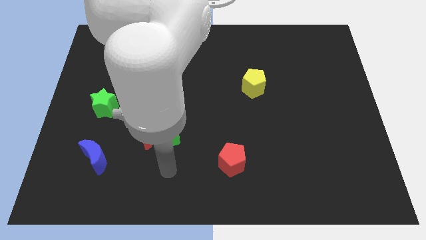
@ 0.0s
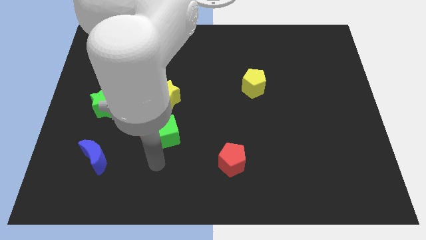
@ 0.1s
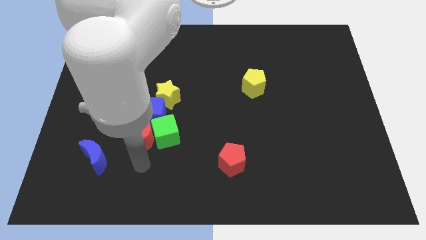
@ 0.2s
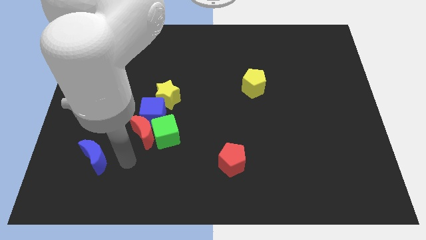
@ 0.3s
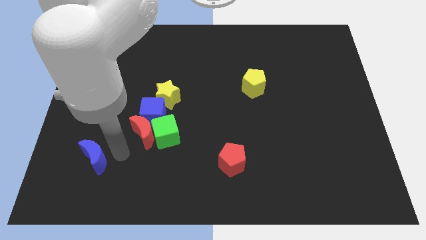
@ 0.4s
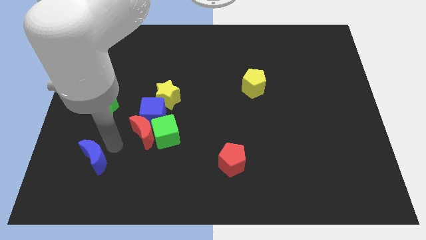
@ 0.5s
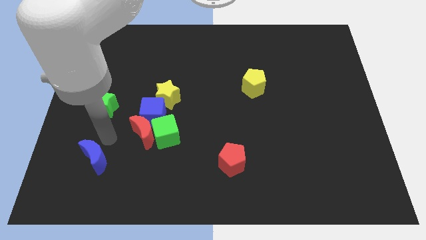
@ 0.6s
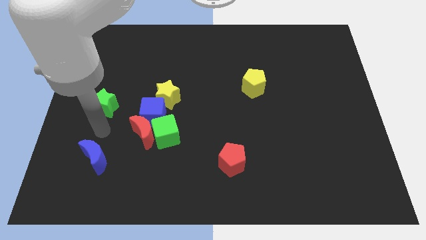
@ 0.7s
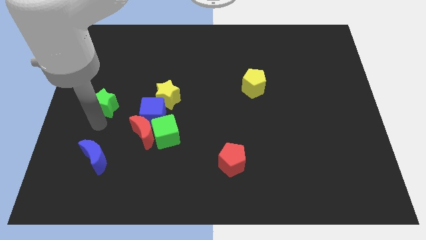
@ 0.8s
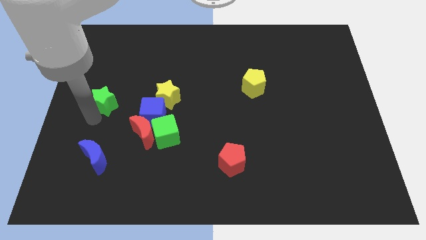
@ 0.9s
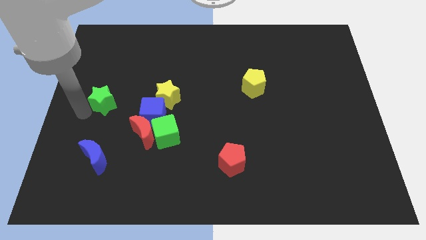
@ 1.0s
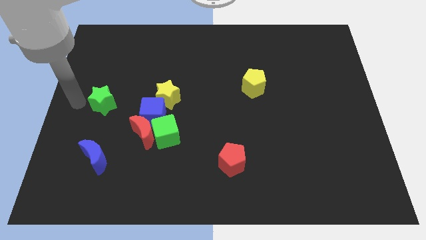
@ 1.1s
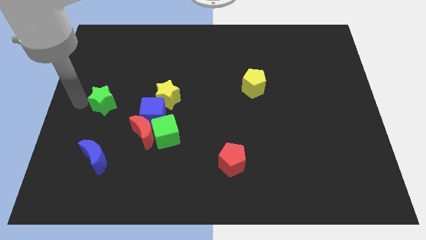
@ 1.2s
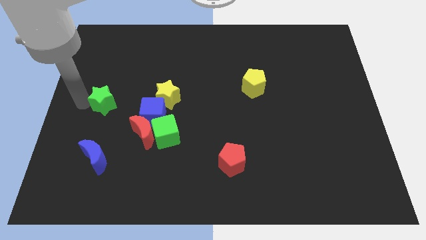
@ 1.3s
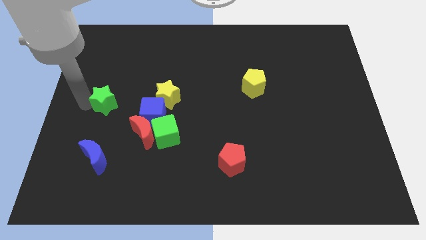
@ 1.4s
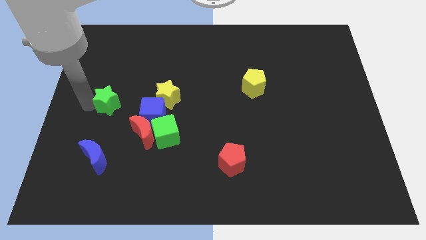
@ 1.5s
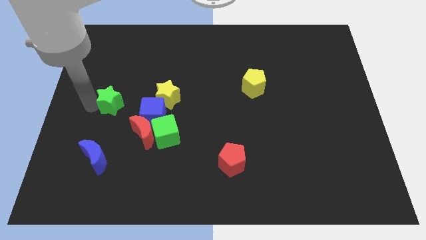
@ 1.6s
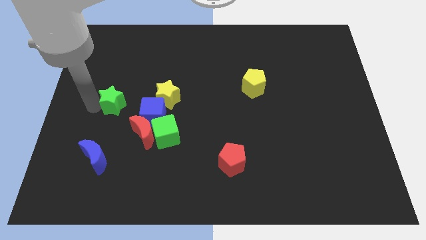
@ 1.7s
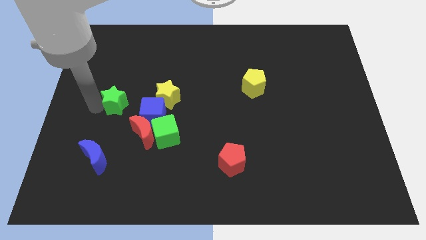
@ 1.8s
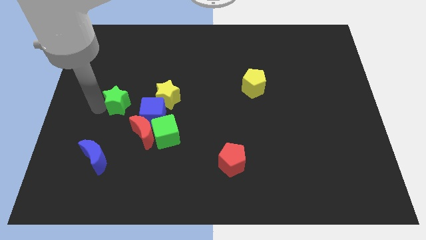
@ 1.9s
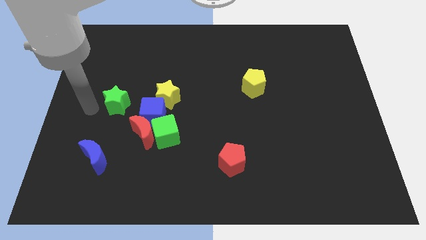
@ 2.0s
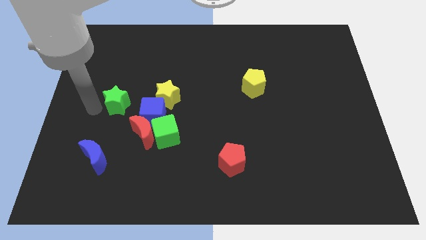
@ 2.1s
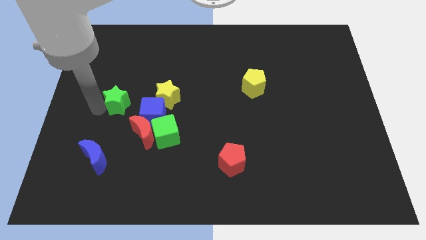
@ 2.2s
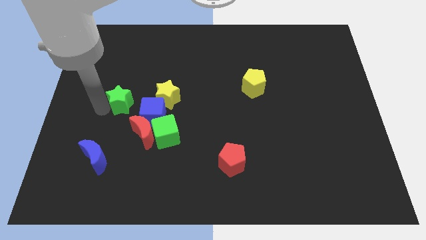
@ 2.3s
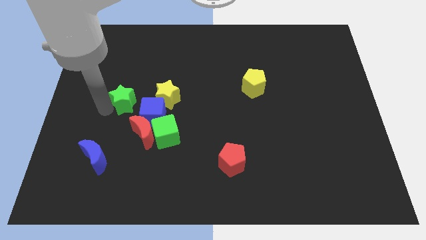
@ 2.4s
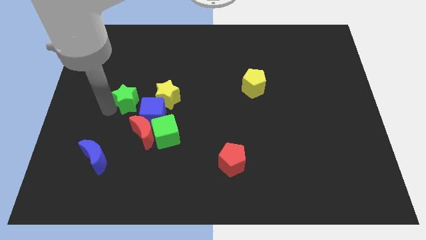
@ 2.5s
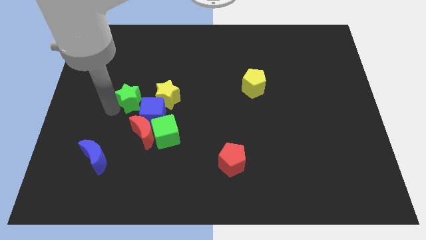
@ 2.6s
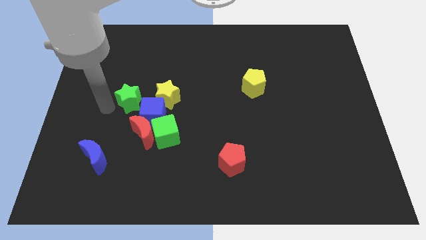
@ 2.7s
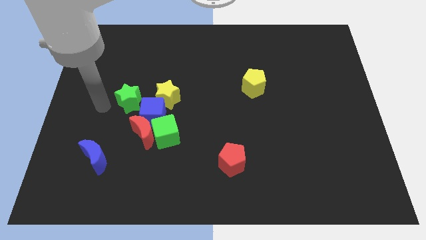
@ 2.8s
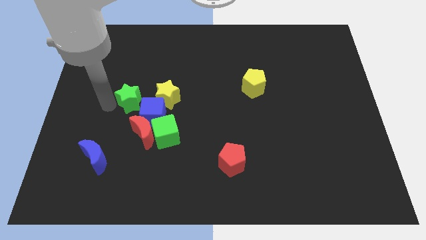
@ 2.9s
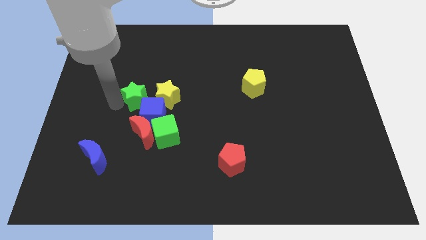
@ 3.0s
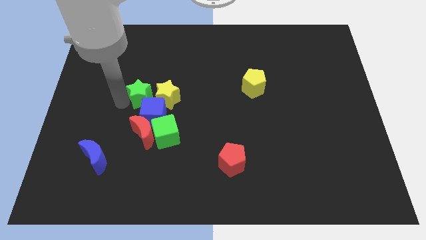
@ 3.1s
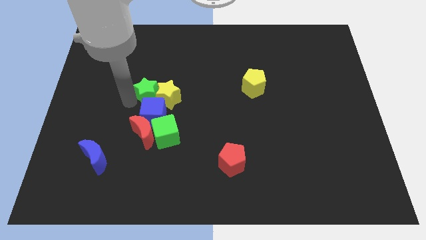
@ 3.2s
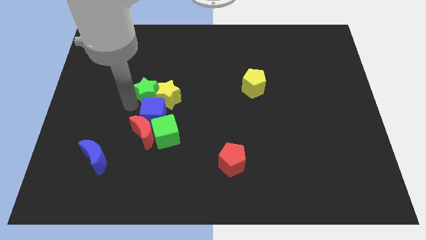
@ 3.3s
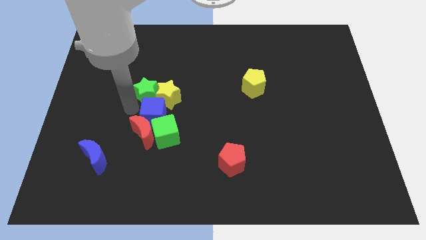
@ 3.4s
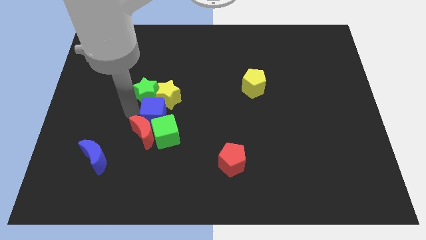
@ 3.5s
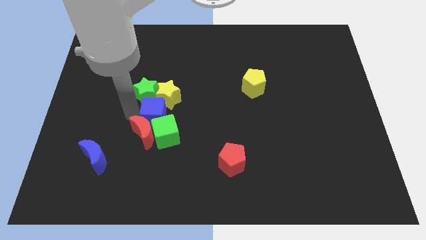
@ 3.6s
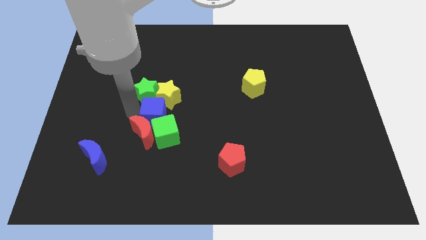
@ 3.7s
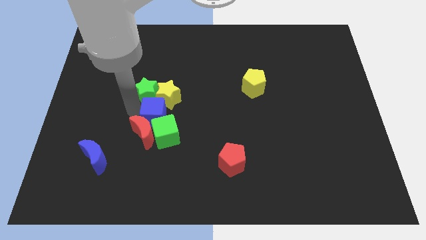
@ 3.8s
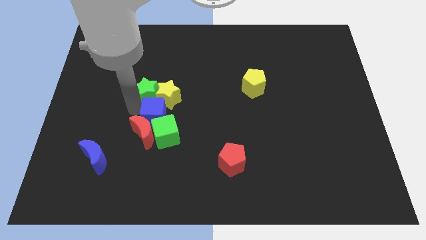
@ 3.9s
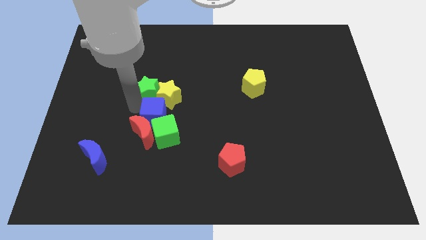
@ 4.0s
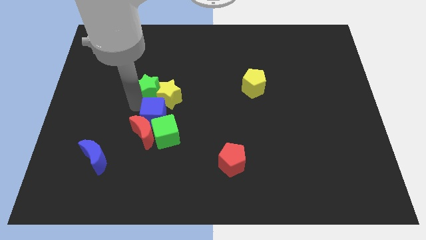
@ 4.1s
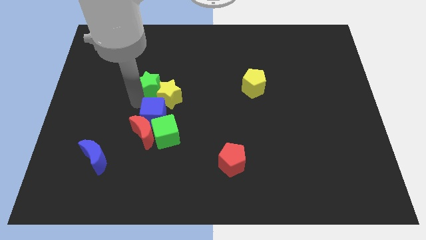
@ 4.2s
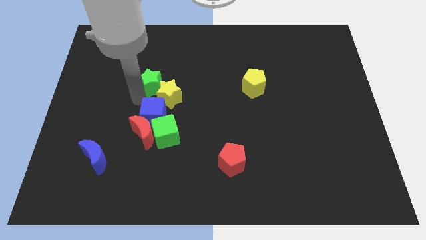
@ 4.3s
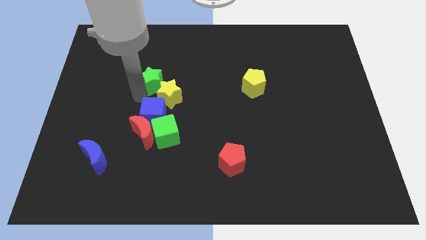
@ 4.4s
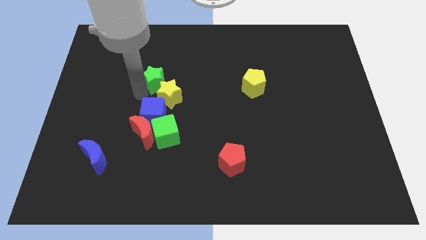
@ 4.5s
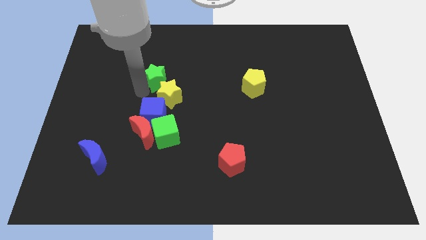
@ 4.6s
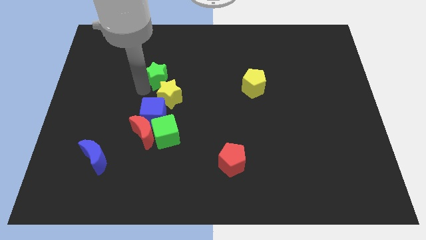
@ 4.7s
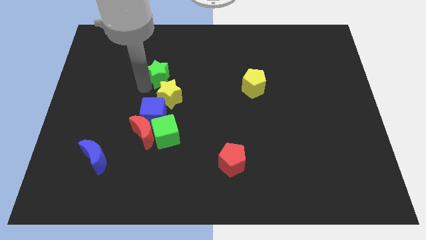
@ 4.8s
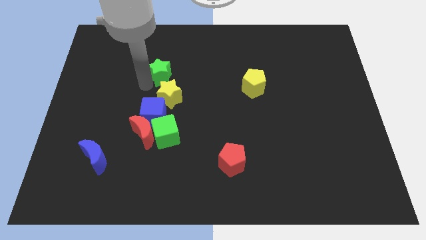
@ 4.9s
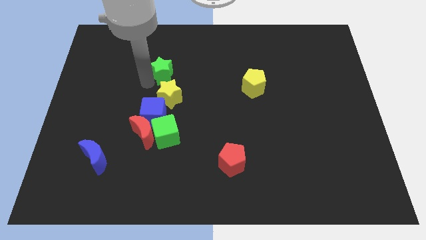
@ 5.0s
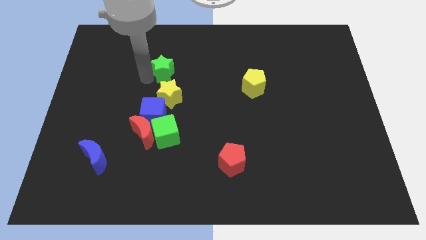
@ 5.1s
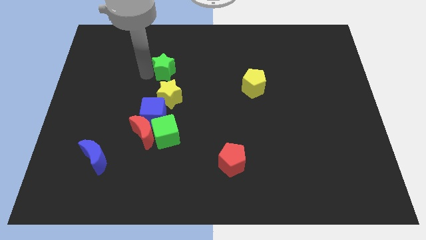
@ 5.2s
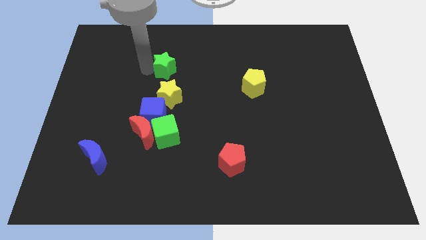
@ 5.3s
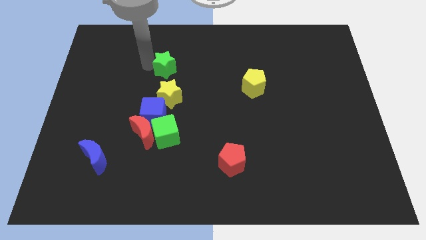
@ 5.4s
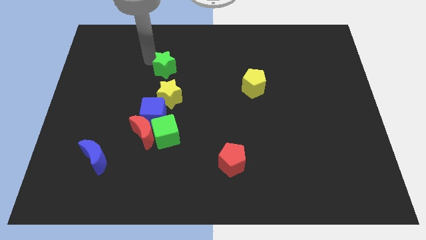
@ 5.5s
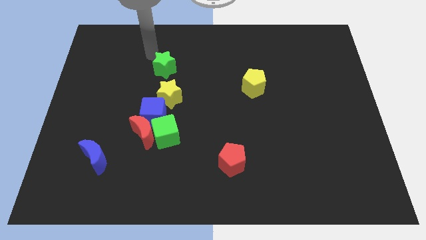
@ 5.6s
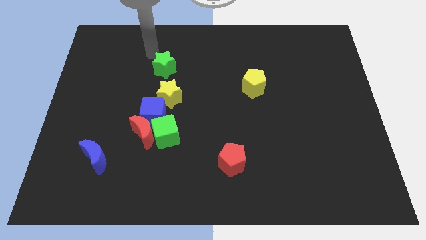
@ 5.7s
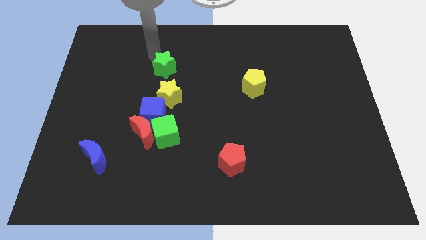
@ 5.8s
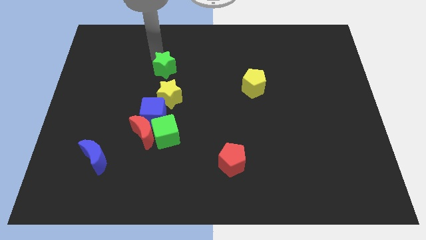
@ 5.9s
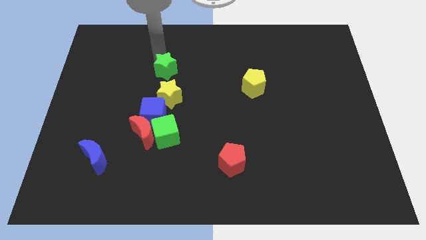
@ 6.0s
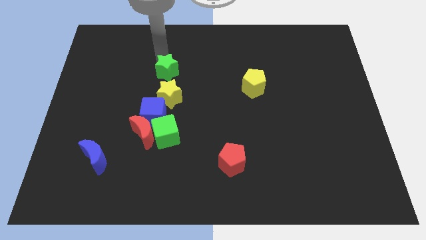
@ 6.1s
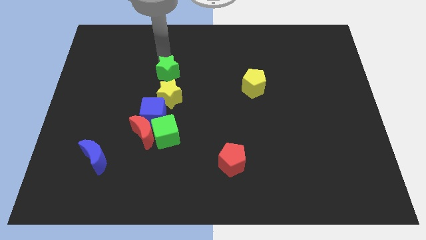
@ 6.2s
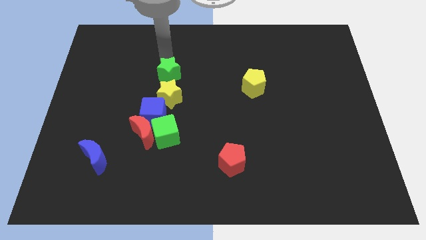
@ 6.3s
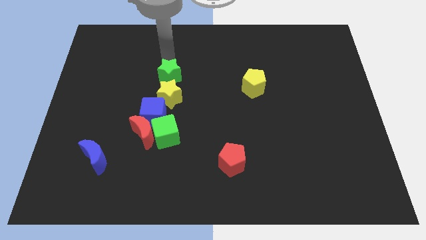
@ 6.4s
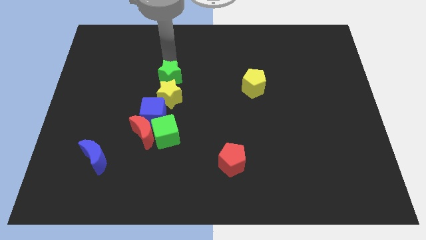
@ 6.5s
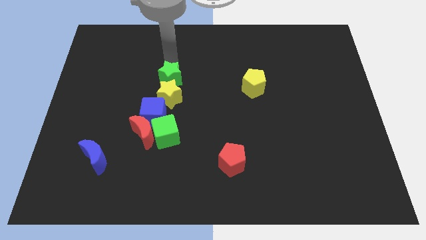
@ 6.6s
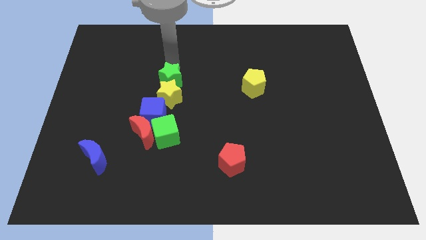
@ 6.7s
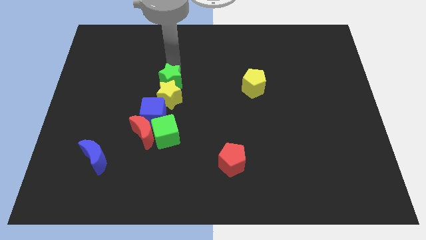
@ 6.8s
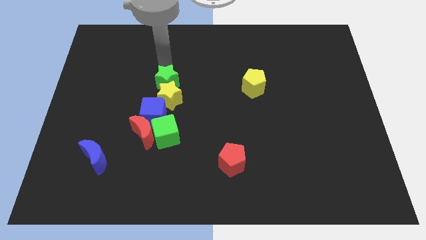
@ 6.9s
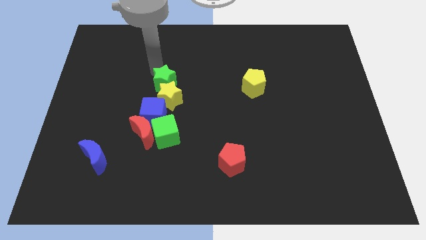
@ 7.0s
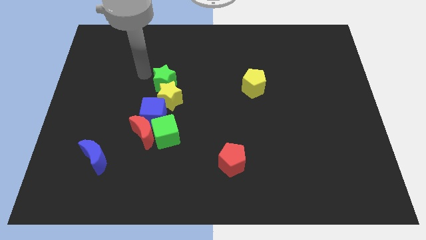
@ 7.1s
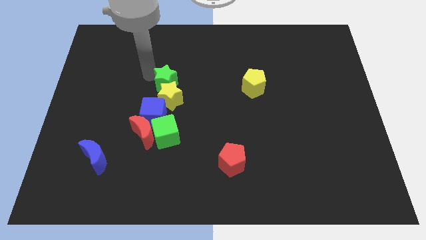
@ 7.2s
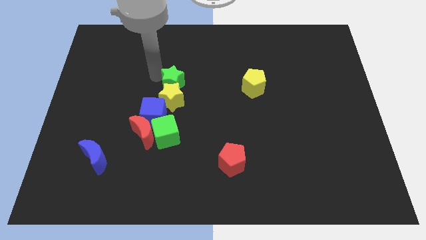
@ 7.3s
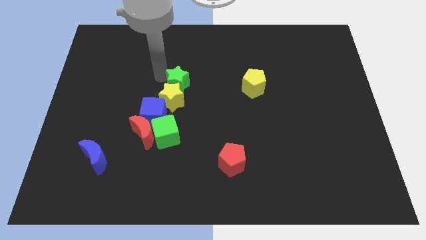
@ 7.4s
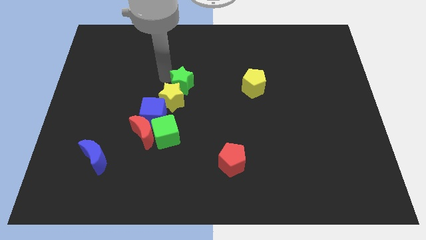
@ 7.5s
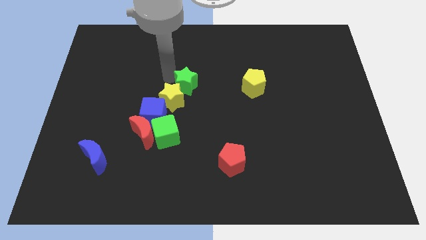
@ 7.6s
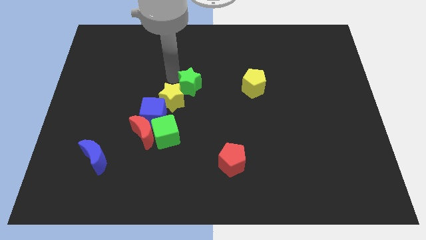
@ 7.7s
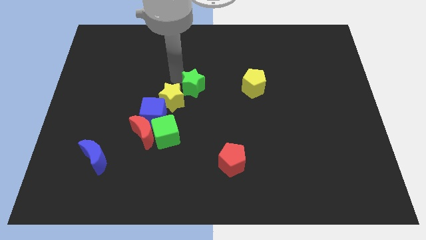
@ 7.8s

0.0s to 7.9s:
move the green star to the right of the yellow star
